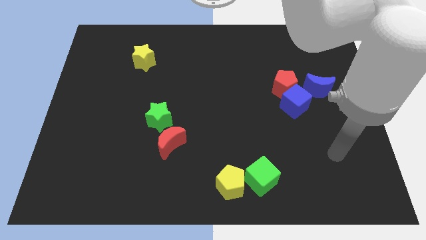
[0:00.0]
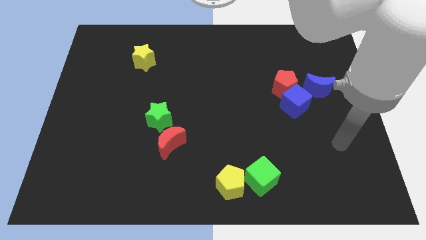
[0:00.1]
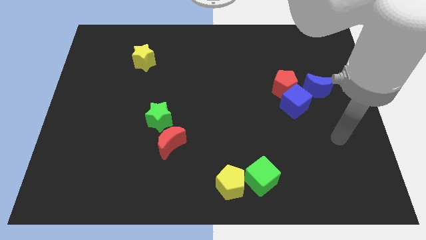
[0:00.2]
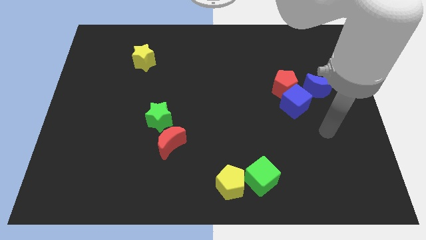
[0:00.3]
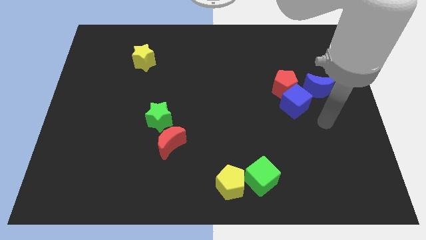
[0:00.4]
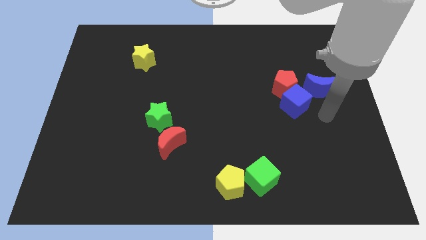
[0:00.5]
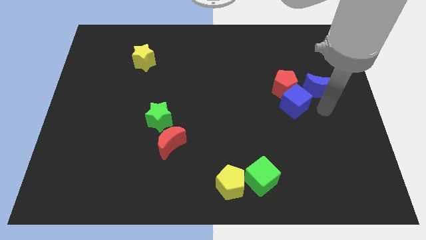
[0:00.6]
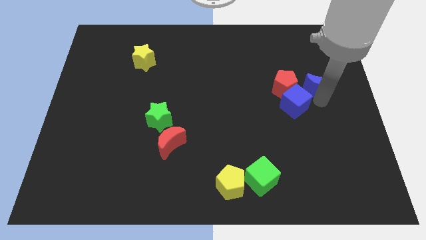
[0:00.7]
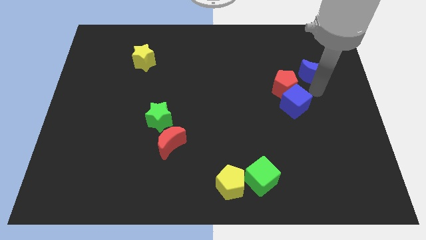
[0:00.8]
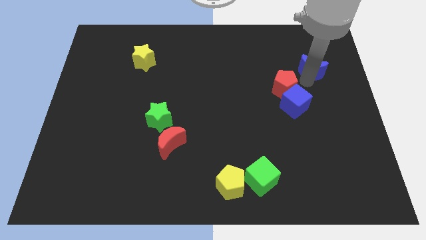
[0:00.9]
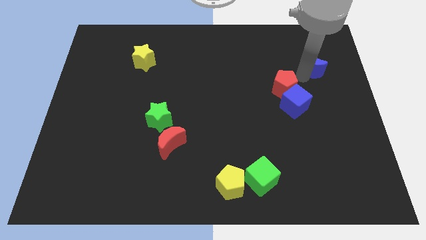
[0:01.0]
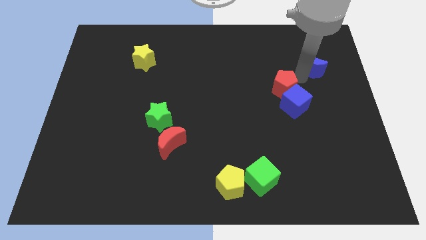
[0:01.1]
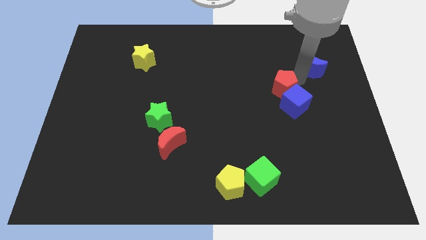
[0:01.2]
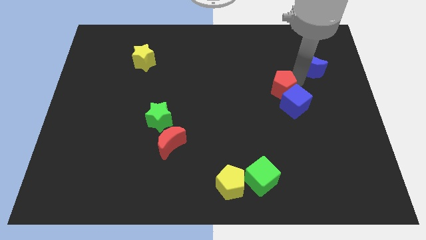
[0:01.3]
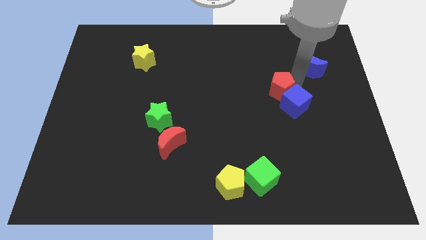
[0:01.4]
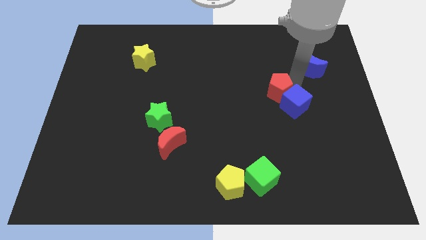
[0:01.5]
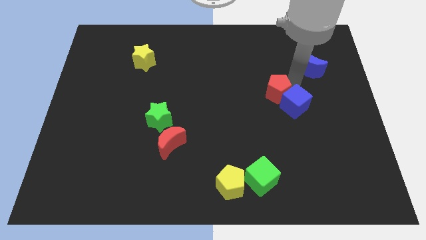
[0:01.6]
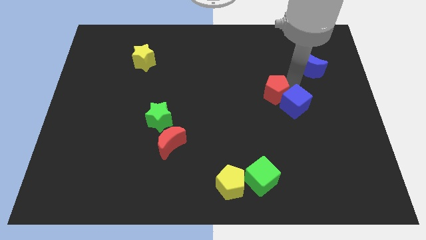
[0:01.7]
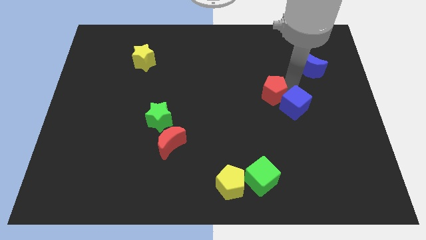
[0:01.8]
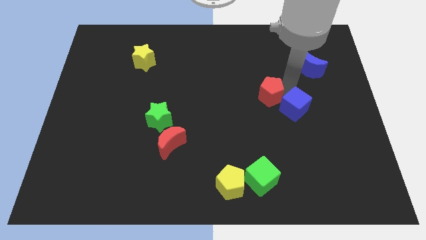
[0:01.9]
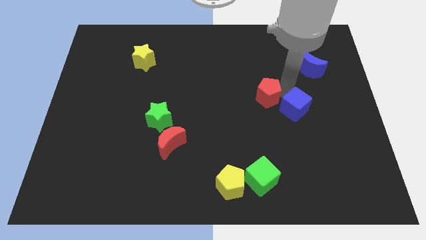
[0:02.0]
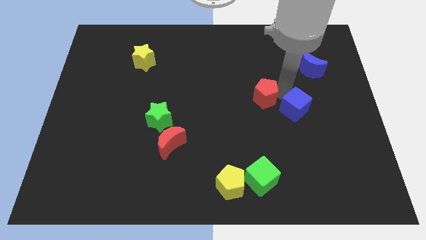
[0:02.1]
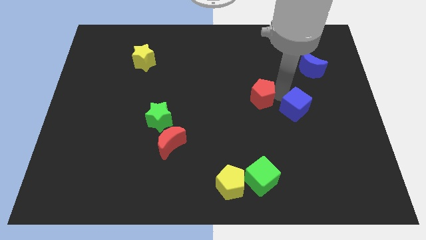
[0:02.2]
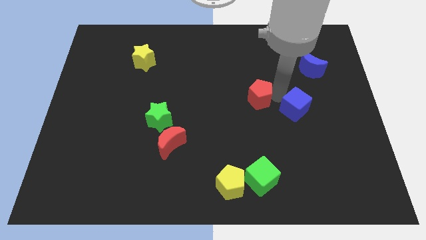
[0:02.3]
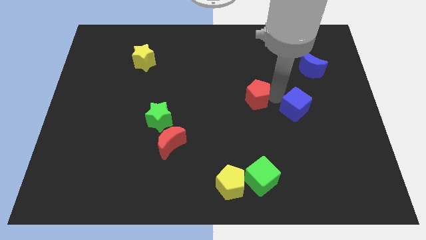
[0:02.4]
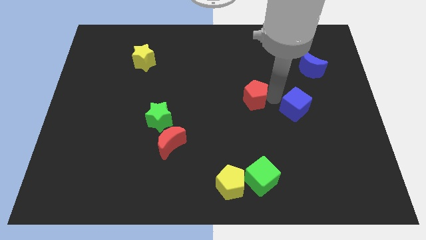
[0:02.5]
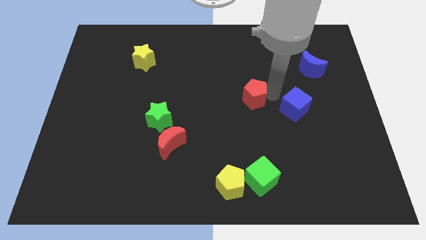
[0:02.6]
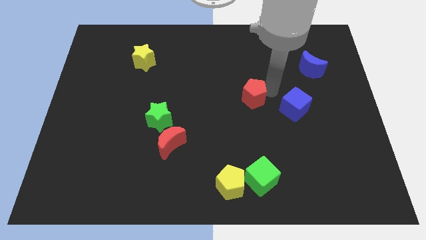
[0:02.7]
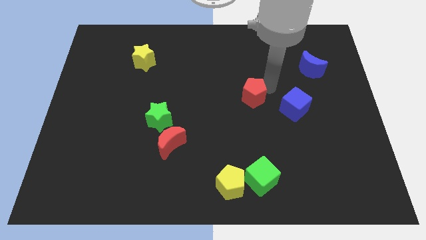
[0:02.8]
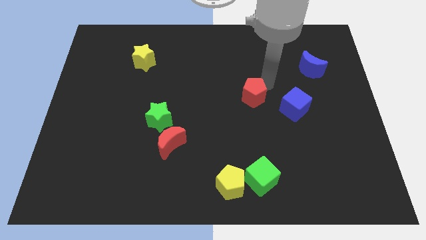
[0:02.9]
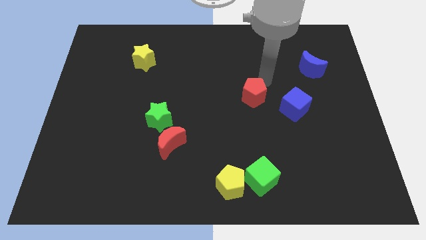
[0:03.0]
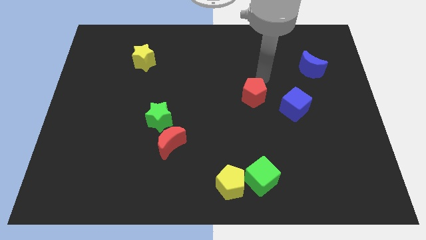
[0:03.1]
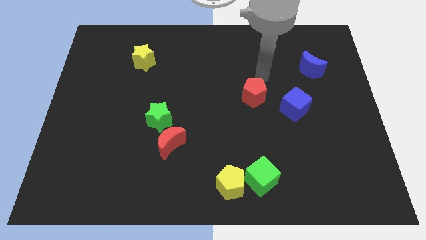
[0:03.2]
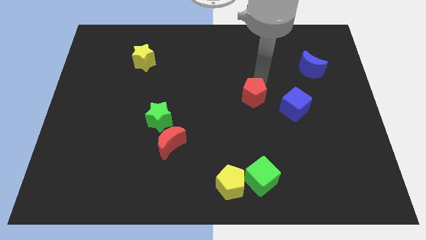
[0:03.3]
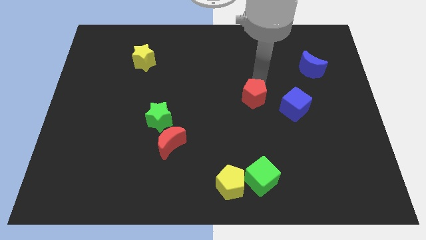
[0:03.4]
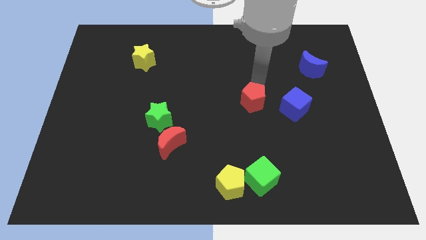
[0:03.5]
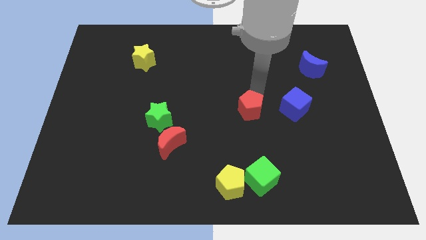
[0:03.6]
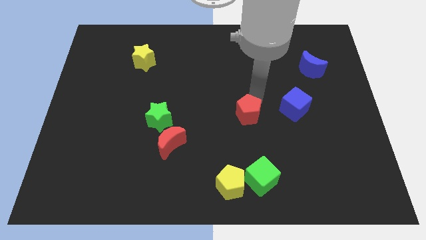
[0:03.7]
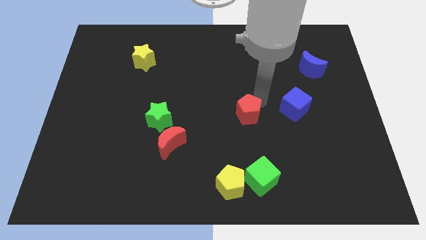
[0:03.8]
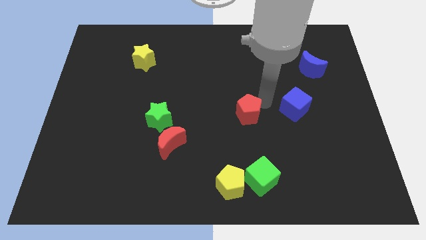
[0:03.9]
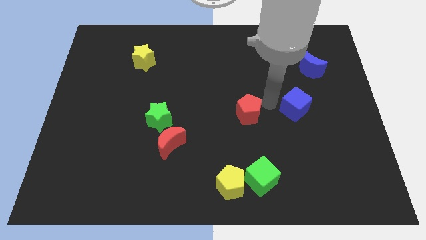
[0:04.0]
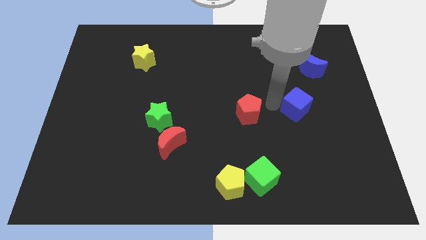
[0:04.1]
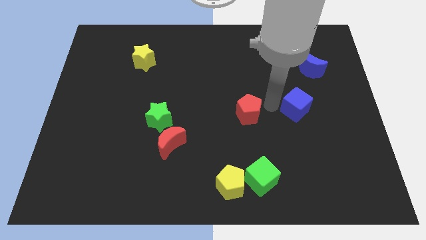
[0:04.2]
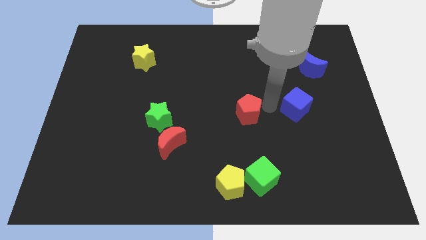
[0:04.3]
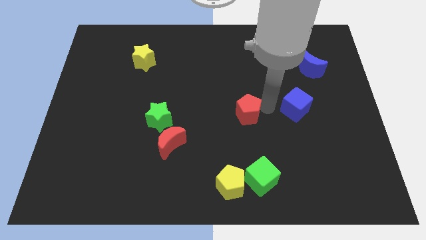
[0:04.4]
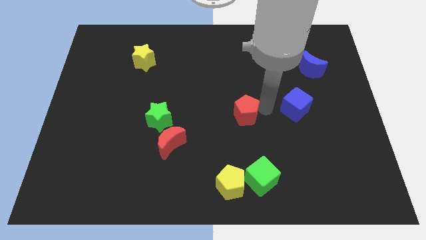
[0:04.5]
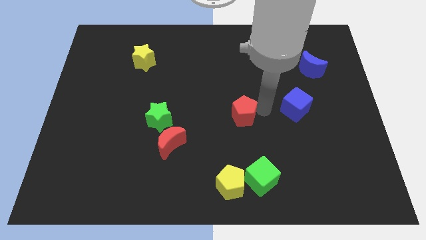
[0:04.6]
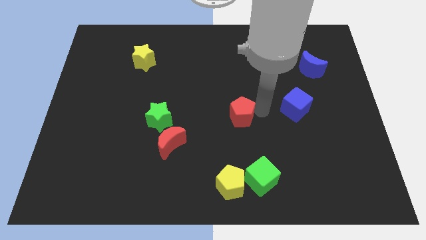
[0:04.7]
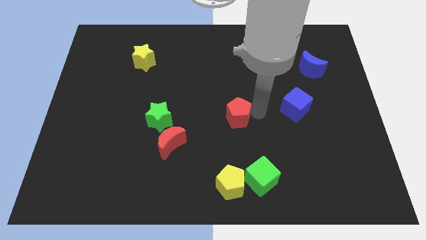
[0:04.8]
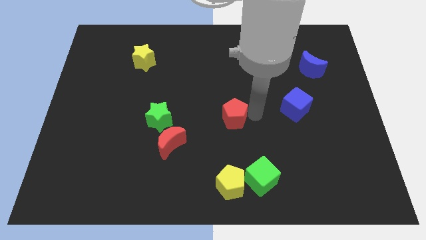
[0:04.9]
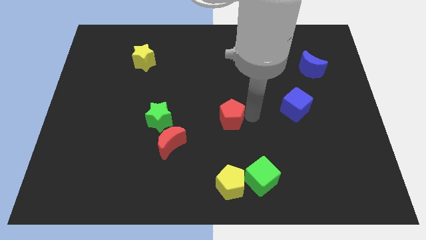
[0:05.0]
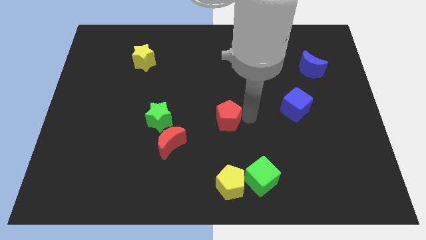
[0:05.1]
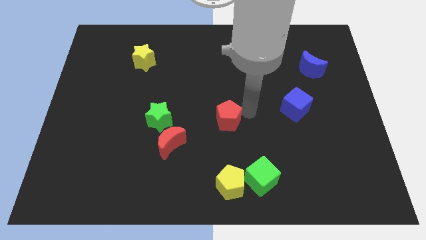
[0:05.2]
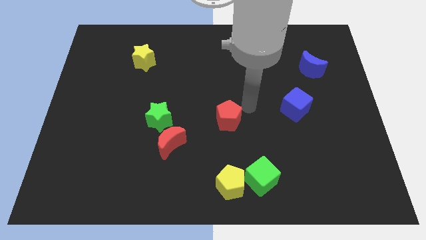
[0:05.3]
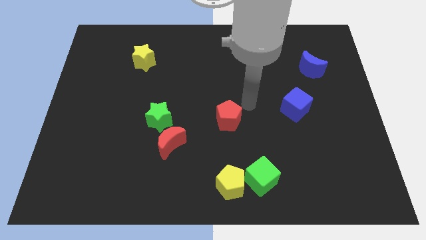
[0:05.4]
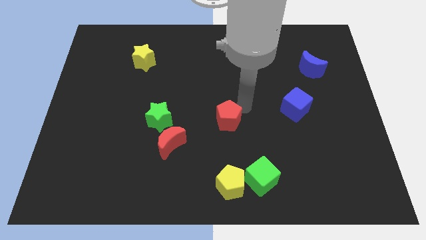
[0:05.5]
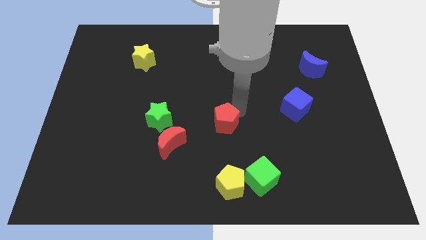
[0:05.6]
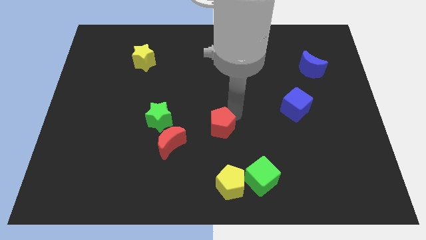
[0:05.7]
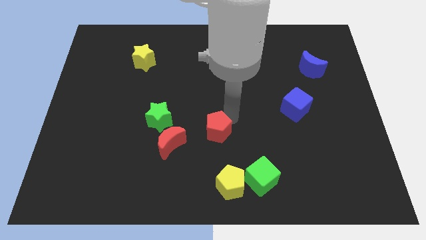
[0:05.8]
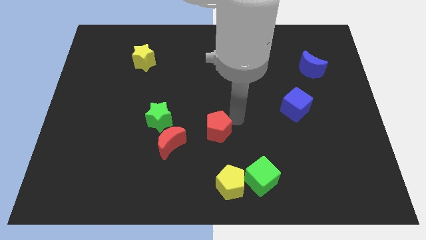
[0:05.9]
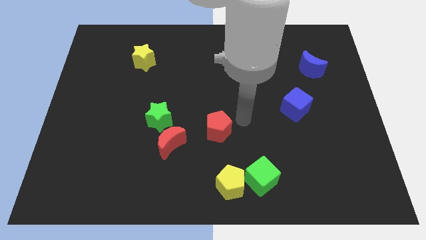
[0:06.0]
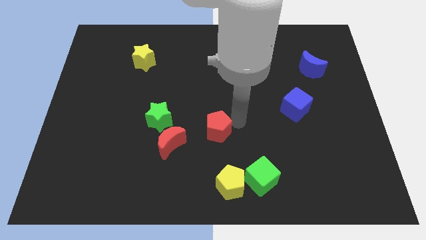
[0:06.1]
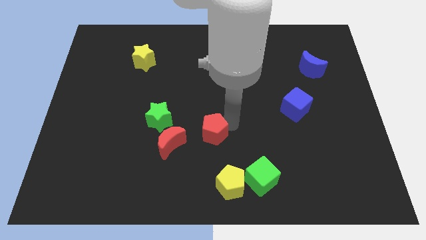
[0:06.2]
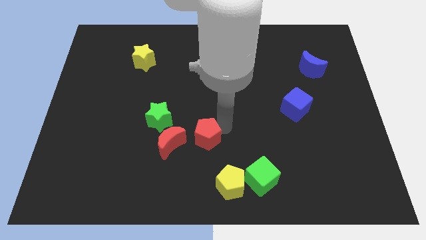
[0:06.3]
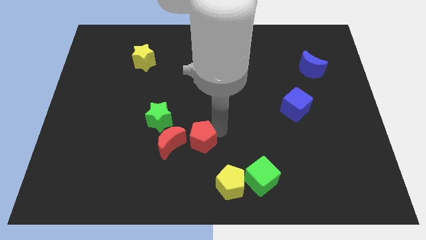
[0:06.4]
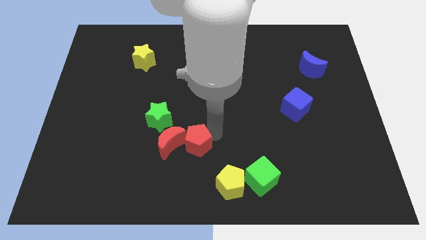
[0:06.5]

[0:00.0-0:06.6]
put the red pentagon next to the red moon

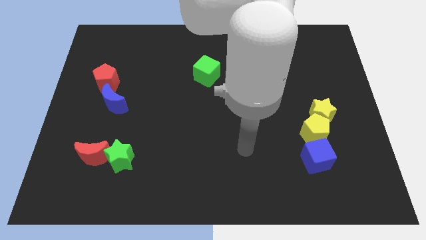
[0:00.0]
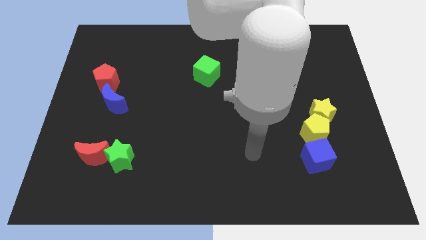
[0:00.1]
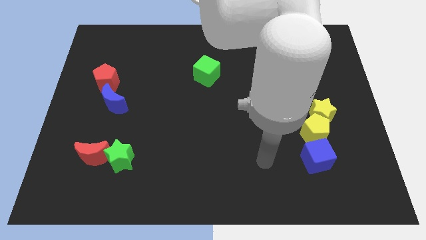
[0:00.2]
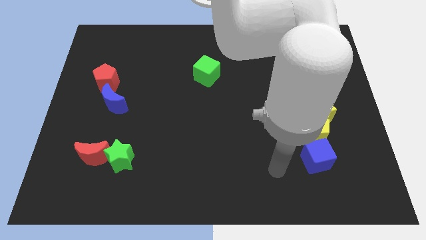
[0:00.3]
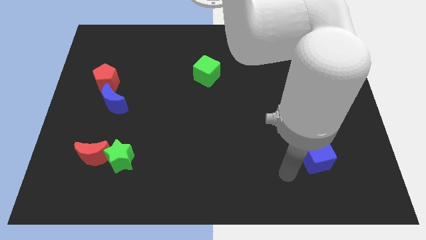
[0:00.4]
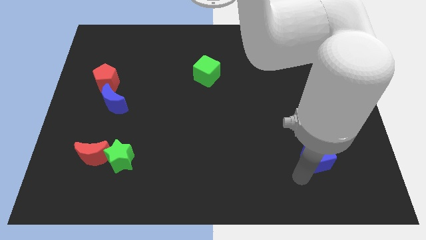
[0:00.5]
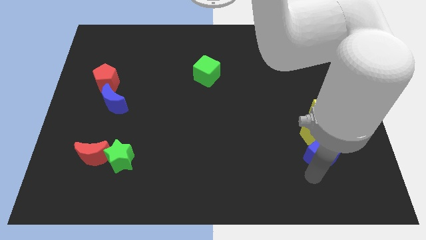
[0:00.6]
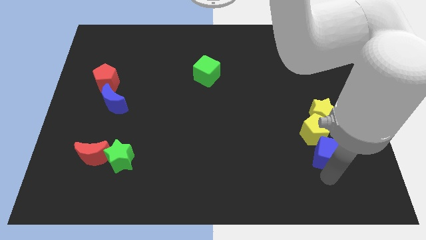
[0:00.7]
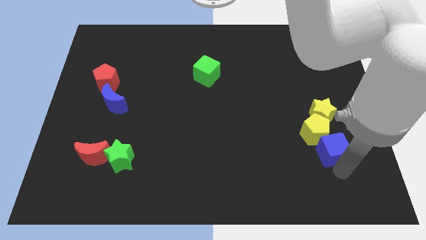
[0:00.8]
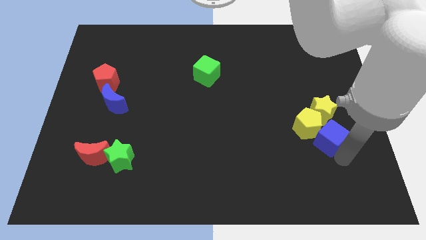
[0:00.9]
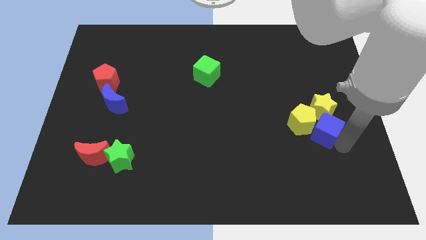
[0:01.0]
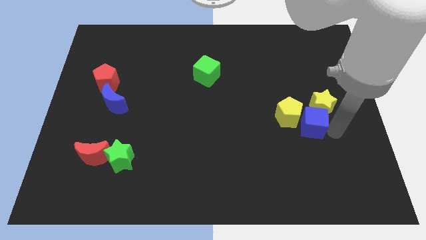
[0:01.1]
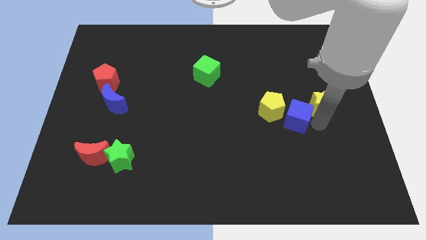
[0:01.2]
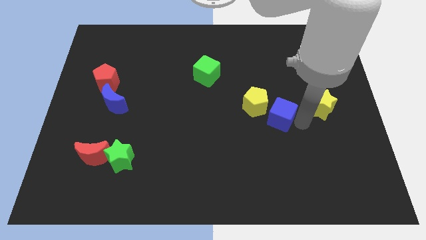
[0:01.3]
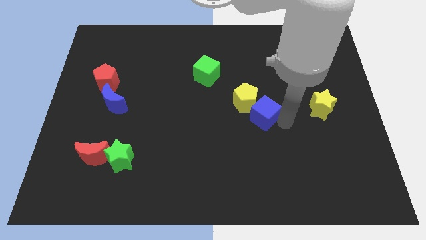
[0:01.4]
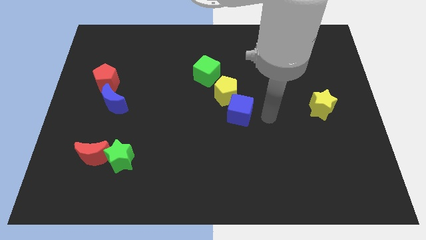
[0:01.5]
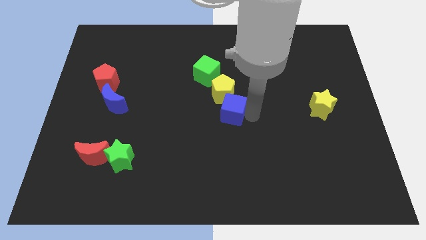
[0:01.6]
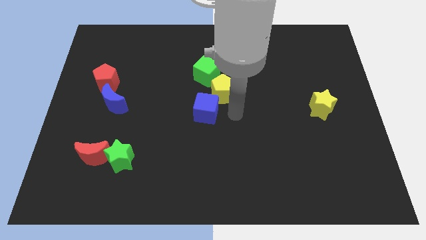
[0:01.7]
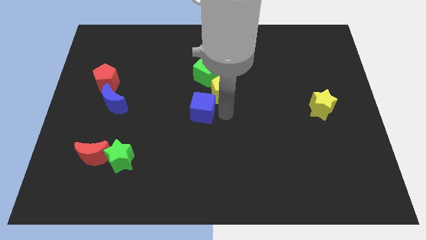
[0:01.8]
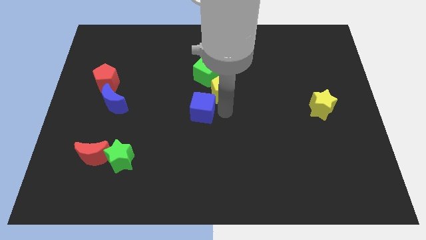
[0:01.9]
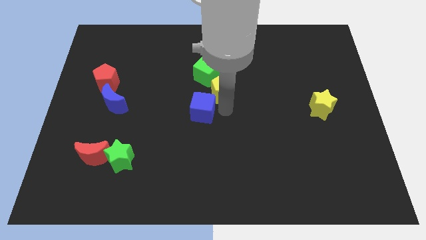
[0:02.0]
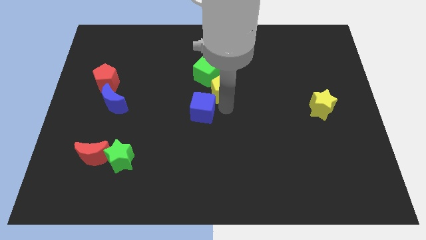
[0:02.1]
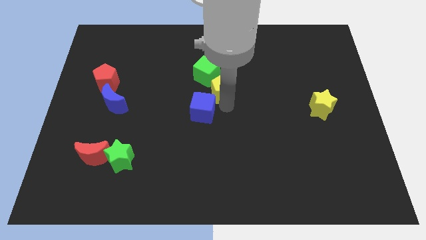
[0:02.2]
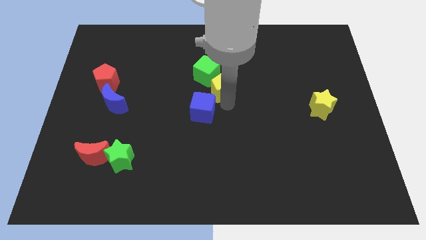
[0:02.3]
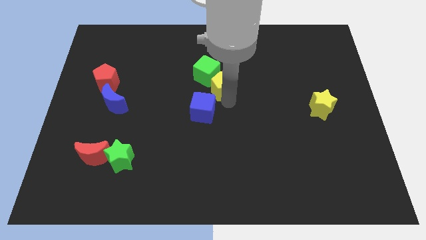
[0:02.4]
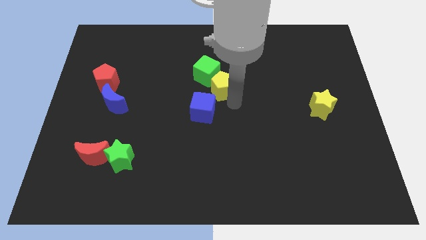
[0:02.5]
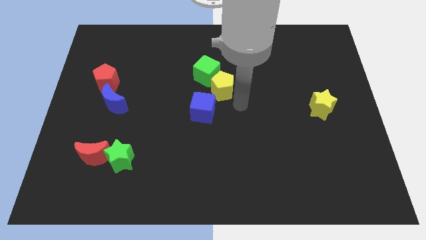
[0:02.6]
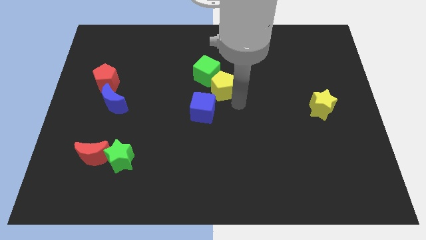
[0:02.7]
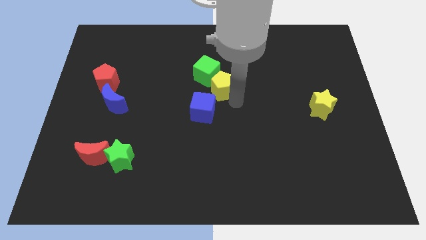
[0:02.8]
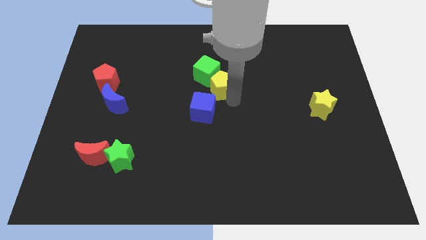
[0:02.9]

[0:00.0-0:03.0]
slide the yellow pentagon to the green cube
